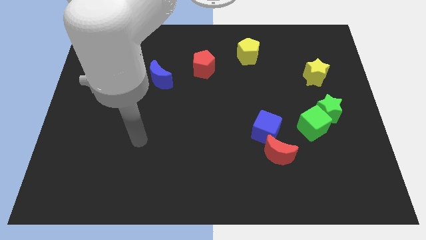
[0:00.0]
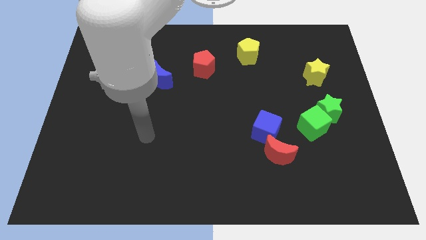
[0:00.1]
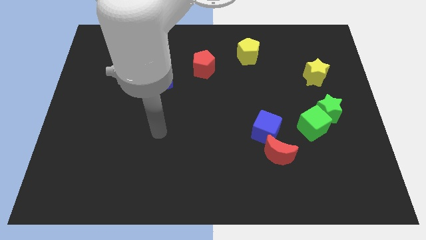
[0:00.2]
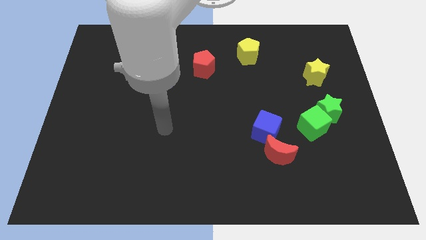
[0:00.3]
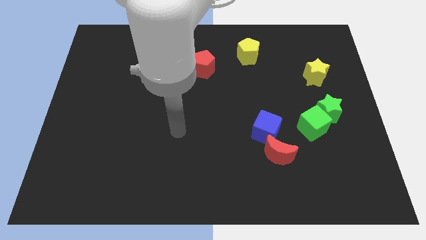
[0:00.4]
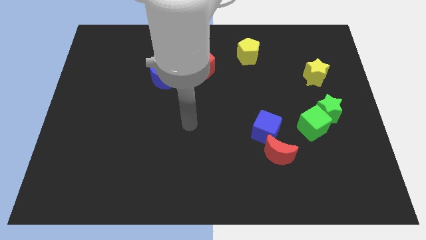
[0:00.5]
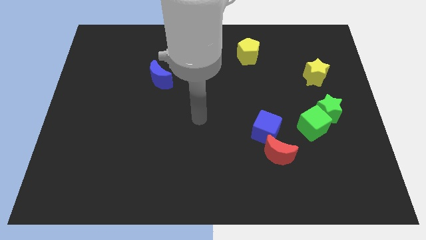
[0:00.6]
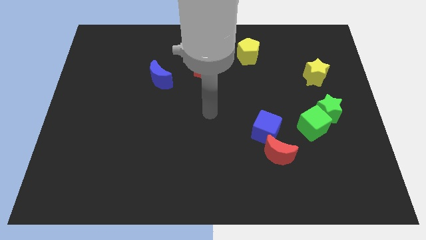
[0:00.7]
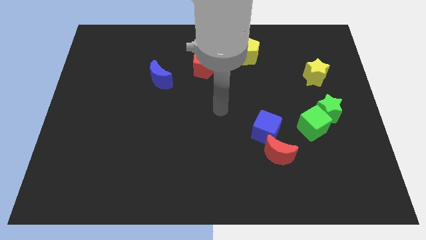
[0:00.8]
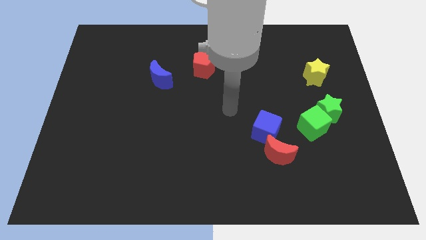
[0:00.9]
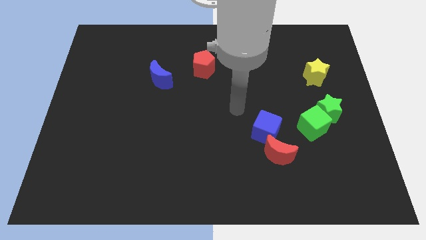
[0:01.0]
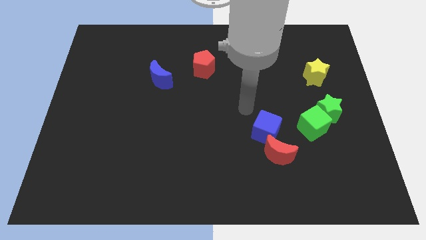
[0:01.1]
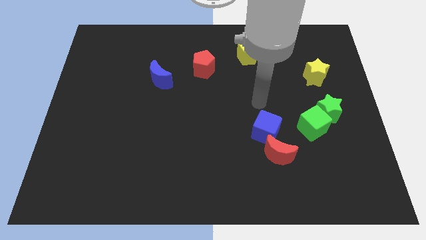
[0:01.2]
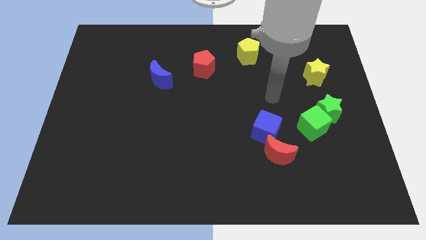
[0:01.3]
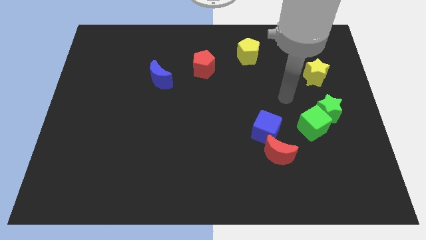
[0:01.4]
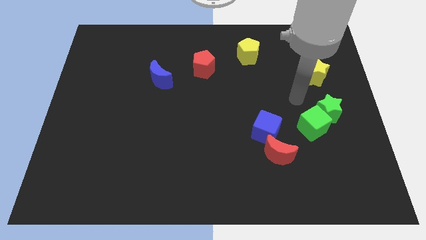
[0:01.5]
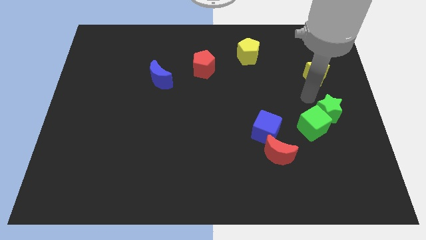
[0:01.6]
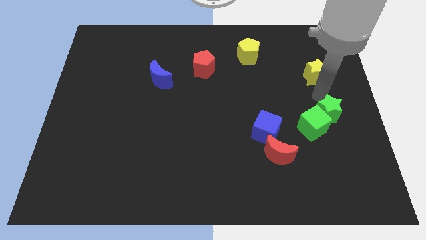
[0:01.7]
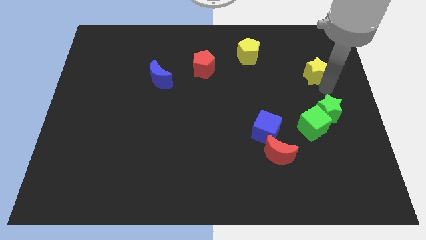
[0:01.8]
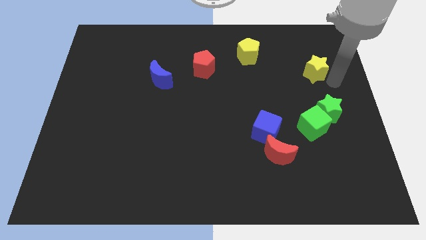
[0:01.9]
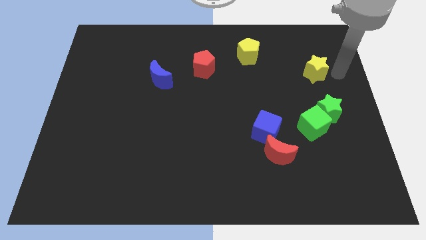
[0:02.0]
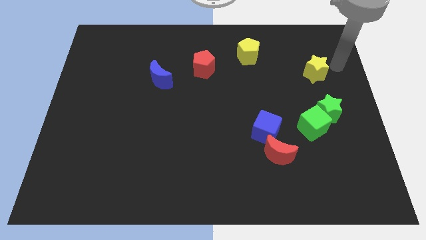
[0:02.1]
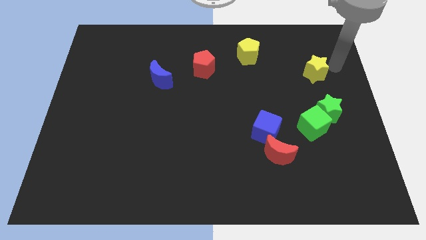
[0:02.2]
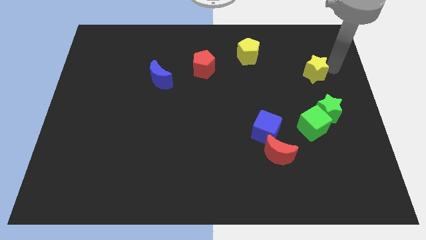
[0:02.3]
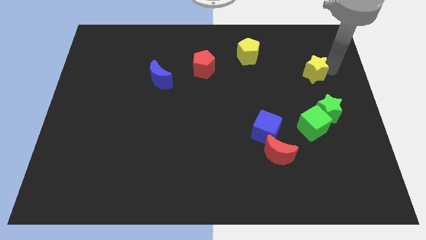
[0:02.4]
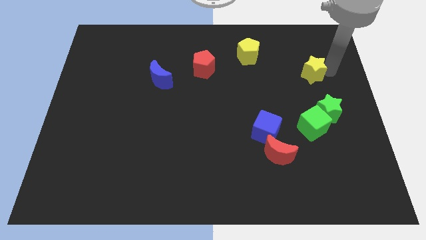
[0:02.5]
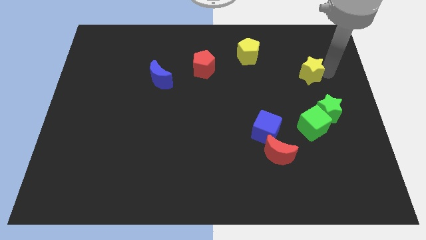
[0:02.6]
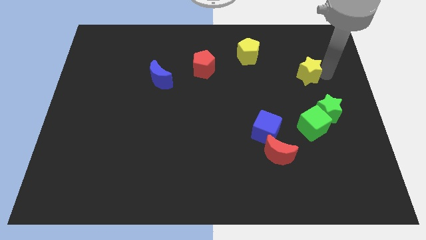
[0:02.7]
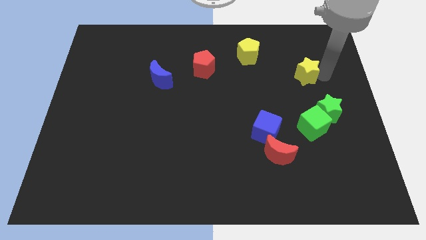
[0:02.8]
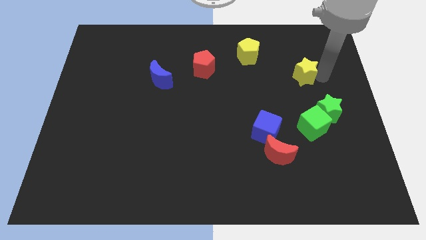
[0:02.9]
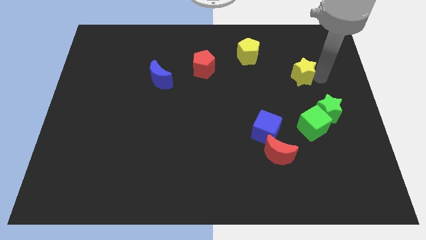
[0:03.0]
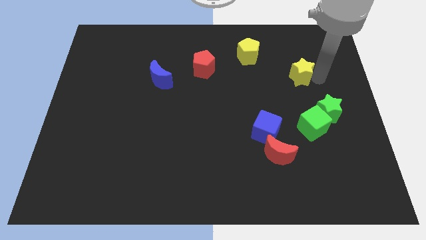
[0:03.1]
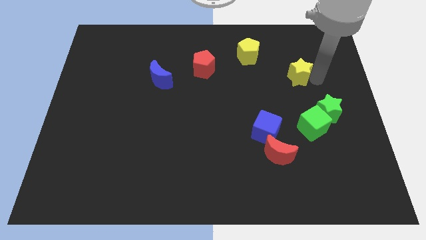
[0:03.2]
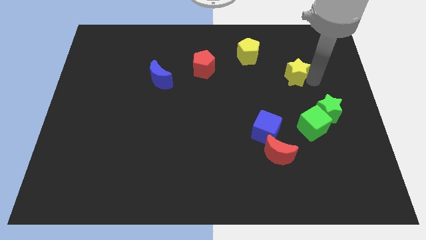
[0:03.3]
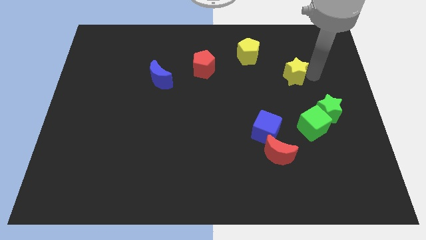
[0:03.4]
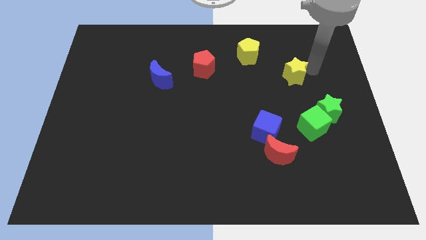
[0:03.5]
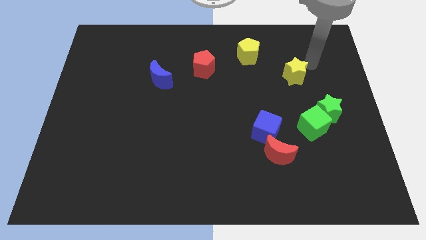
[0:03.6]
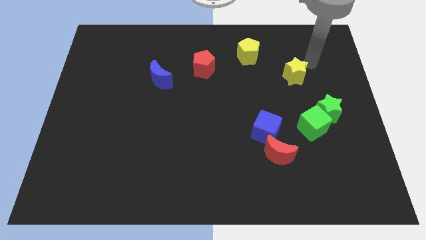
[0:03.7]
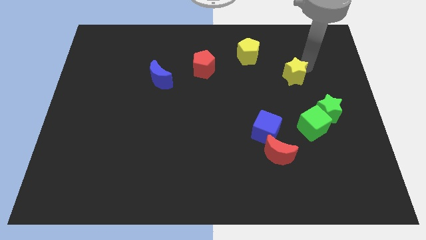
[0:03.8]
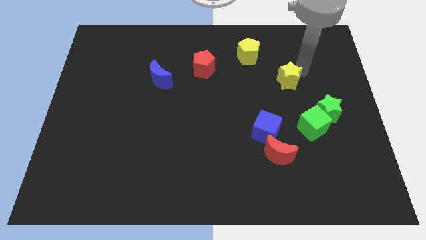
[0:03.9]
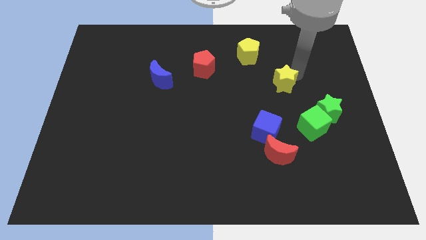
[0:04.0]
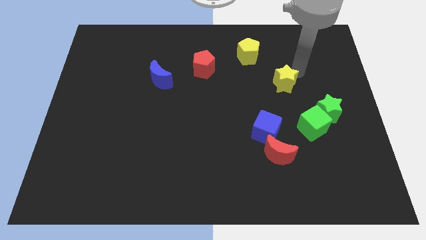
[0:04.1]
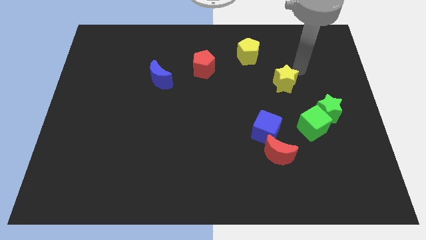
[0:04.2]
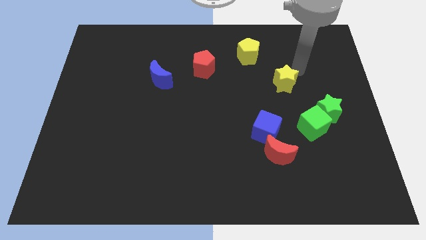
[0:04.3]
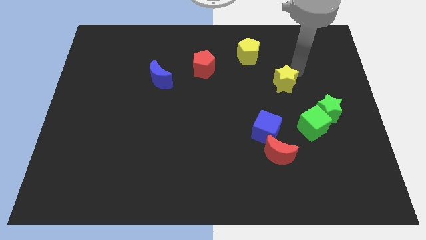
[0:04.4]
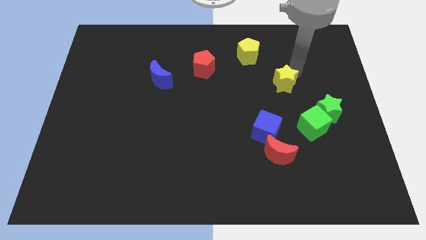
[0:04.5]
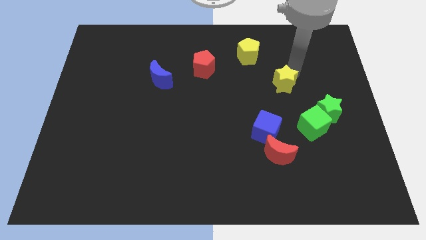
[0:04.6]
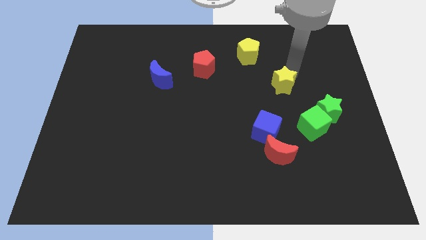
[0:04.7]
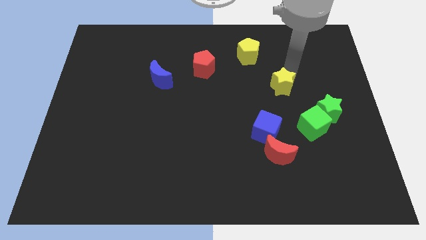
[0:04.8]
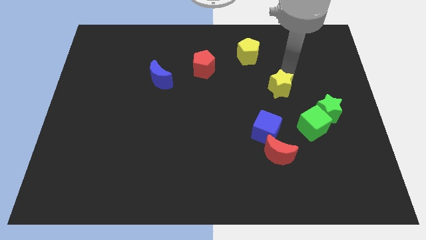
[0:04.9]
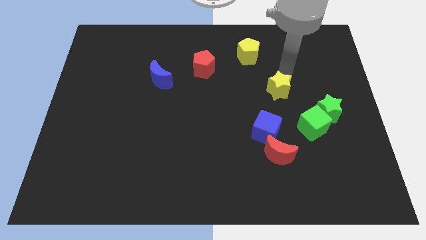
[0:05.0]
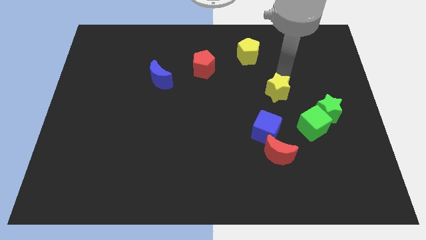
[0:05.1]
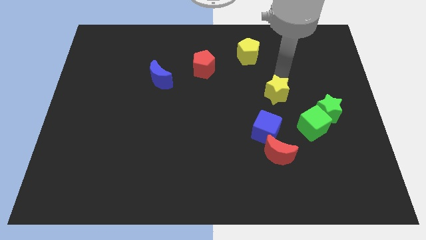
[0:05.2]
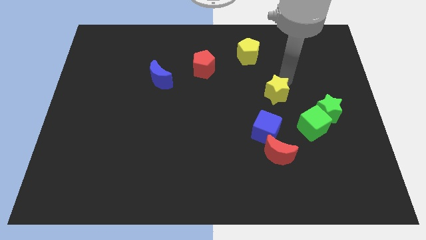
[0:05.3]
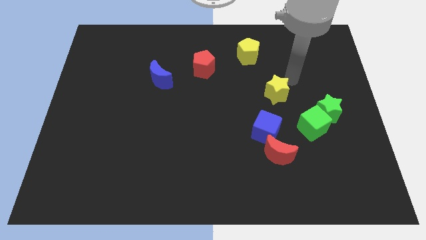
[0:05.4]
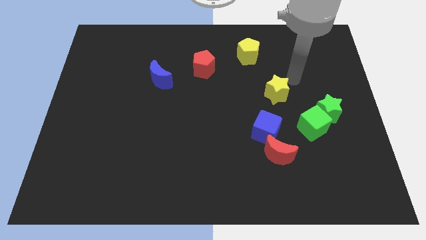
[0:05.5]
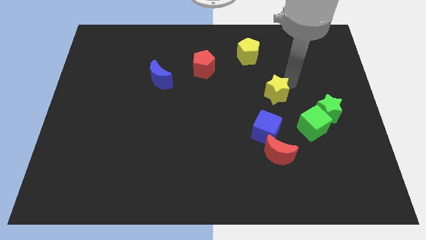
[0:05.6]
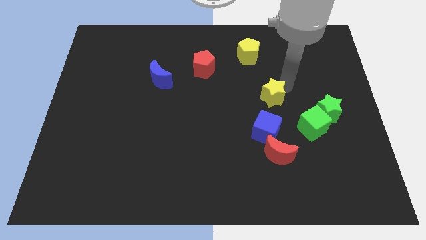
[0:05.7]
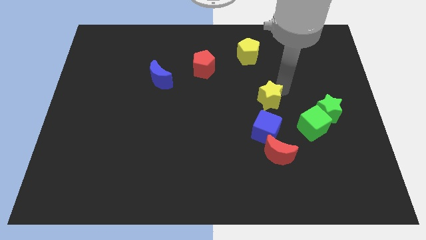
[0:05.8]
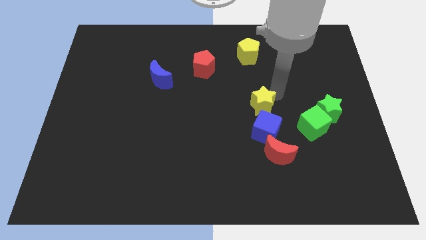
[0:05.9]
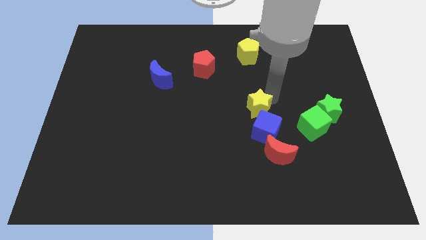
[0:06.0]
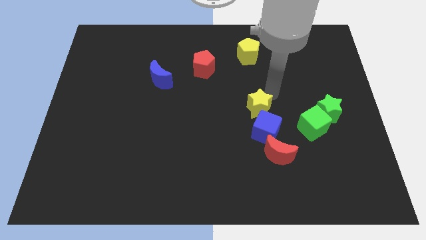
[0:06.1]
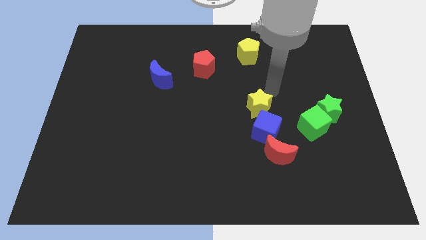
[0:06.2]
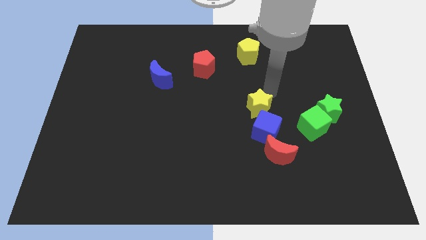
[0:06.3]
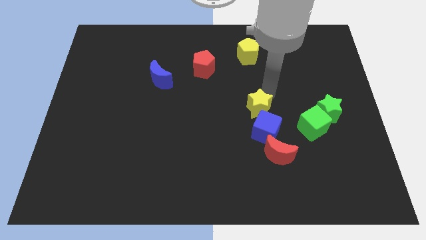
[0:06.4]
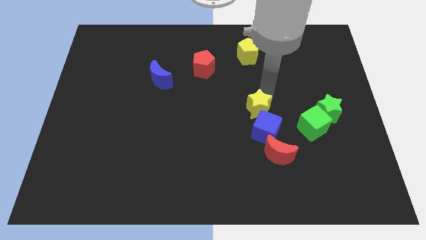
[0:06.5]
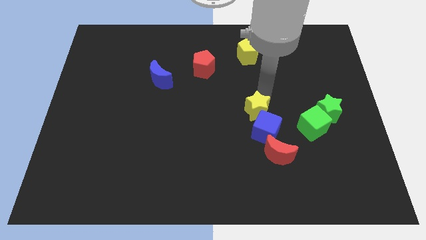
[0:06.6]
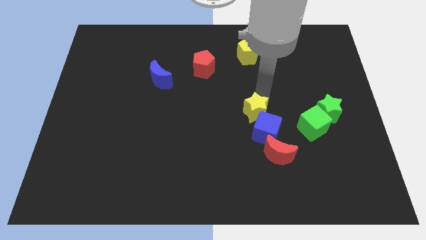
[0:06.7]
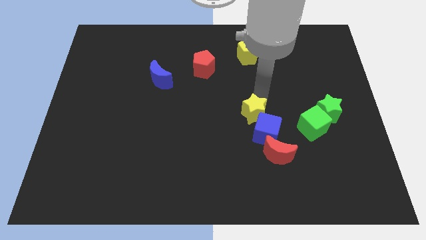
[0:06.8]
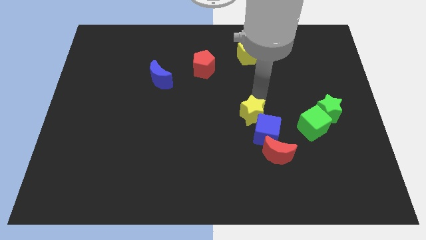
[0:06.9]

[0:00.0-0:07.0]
slide the yellow star downwards and to the left

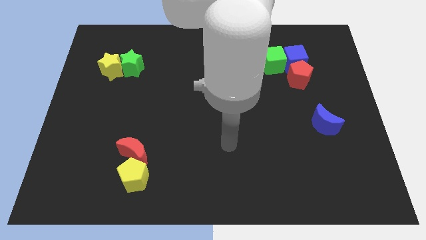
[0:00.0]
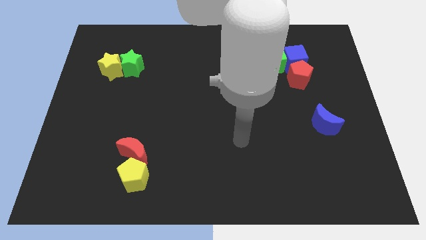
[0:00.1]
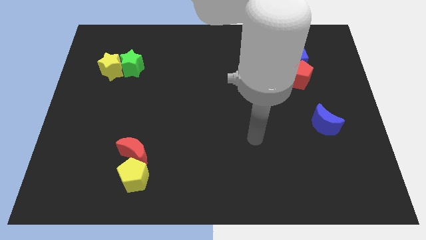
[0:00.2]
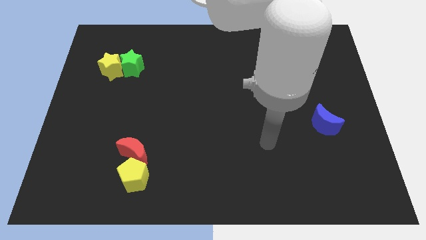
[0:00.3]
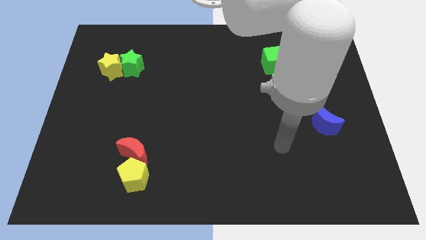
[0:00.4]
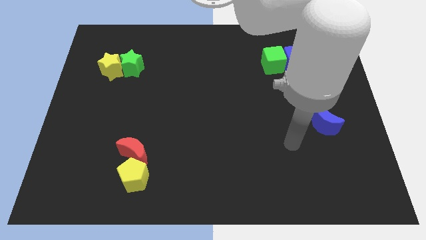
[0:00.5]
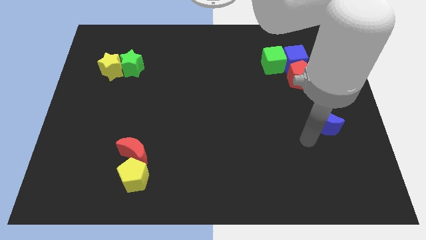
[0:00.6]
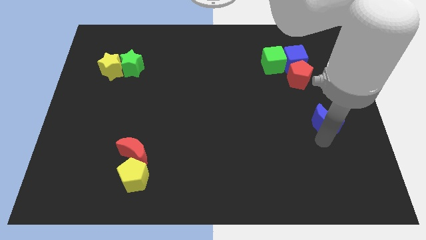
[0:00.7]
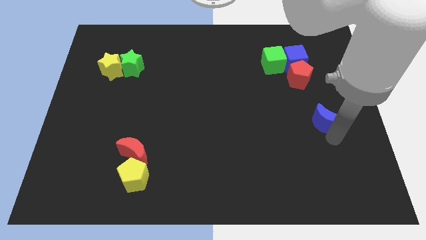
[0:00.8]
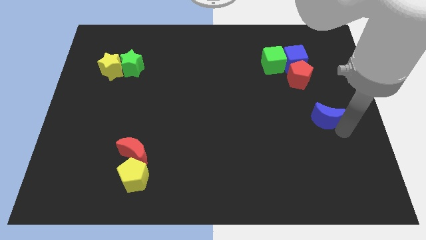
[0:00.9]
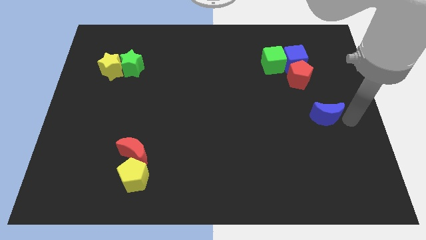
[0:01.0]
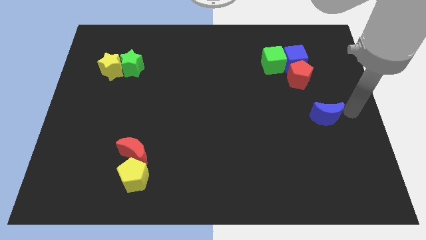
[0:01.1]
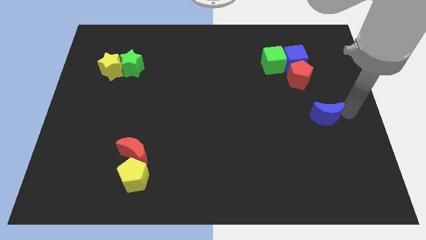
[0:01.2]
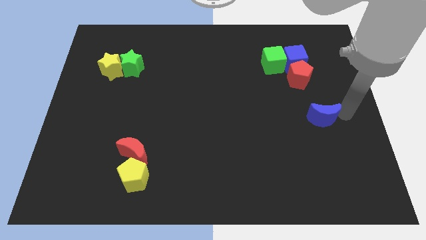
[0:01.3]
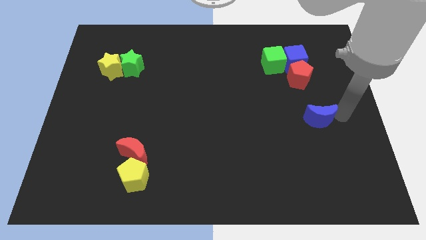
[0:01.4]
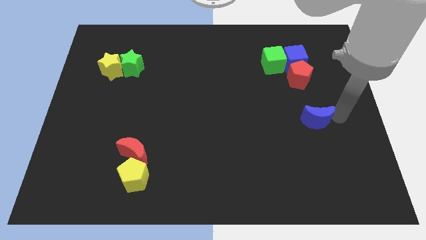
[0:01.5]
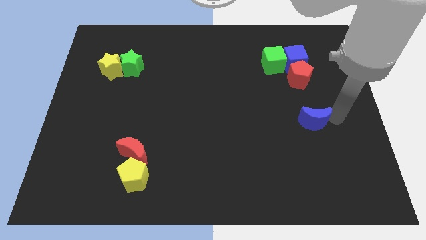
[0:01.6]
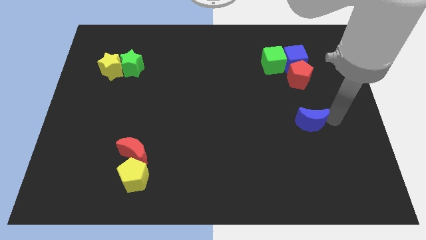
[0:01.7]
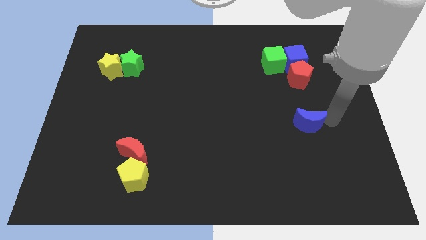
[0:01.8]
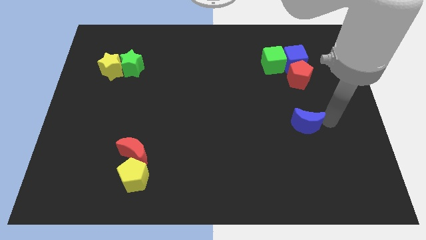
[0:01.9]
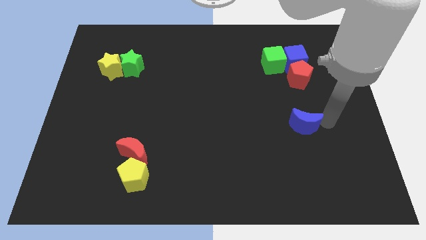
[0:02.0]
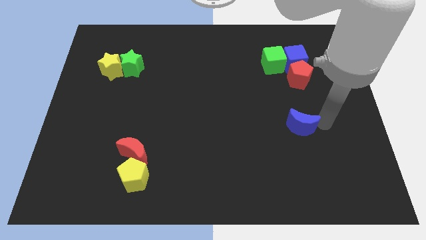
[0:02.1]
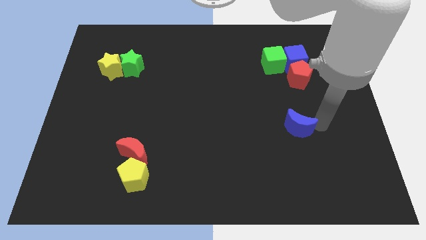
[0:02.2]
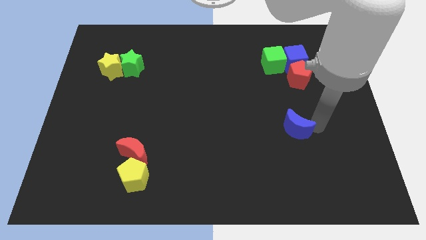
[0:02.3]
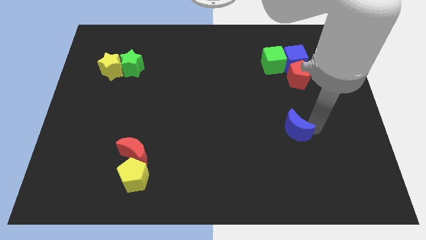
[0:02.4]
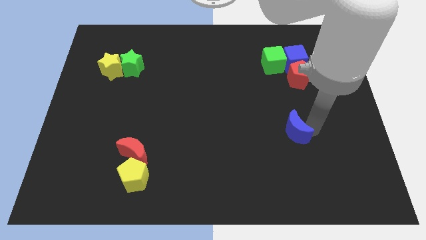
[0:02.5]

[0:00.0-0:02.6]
move the blue moon left a bit
